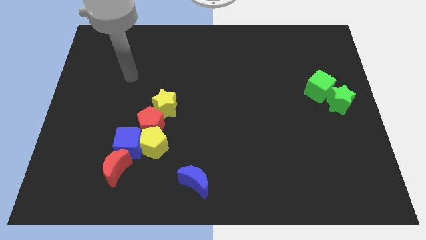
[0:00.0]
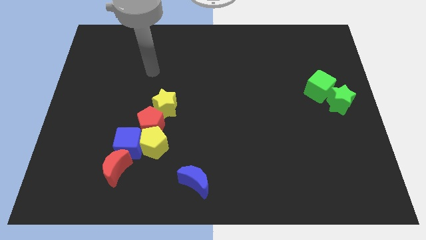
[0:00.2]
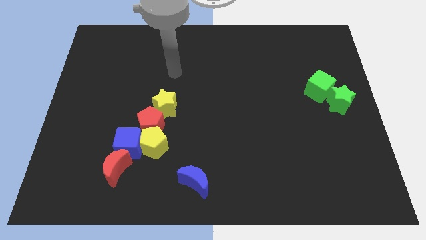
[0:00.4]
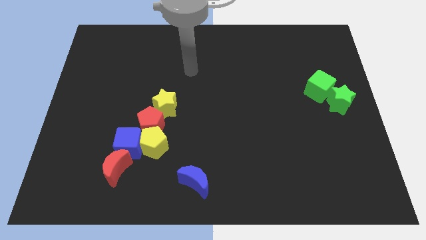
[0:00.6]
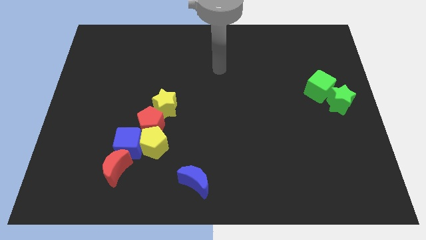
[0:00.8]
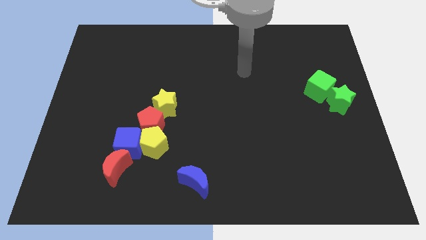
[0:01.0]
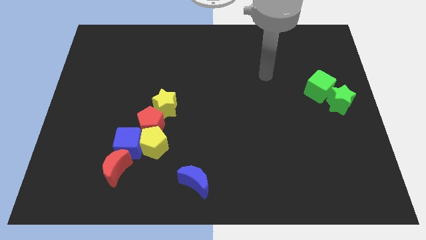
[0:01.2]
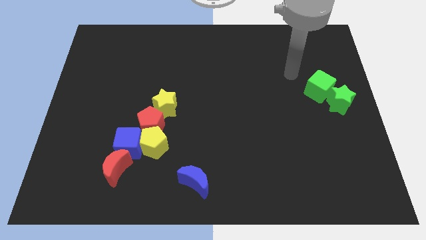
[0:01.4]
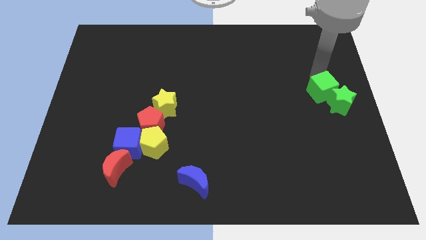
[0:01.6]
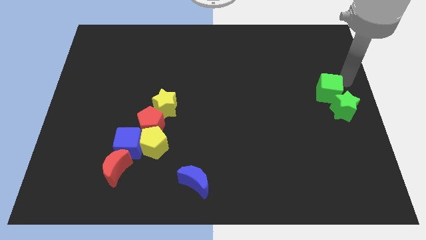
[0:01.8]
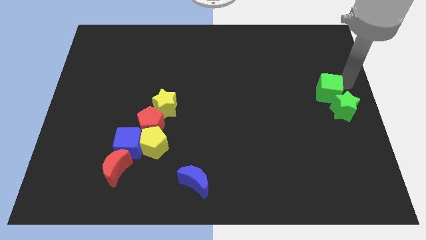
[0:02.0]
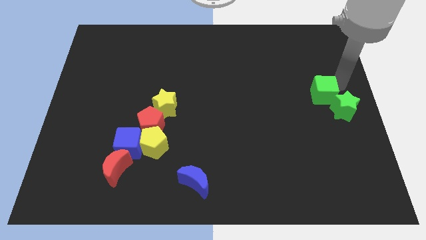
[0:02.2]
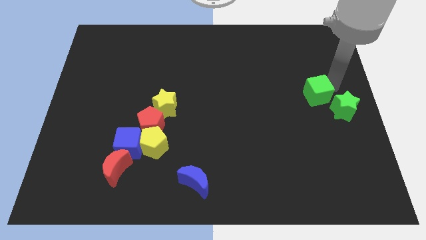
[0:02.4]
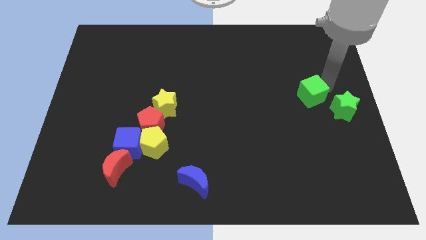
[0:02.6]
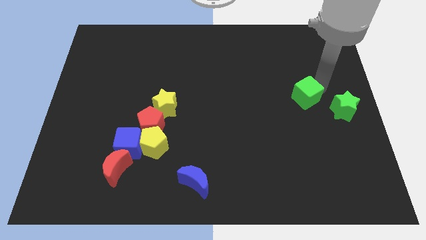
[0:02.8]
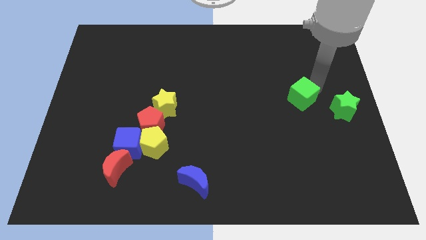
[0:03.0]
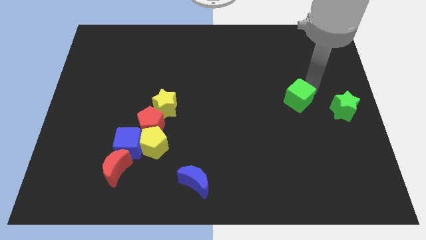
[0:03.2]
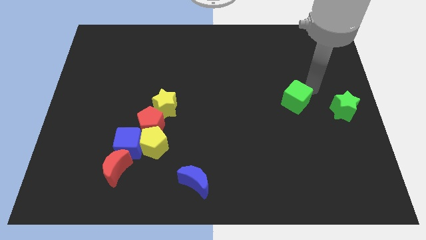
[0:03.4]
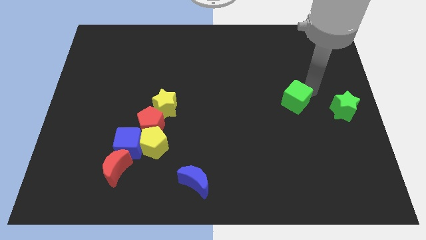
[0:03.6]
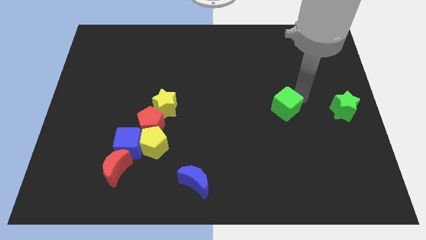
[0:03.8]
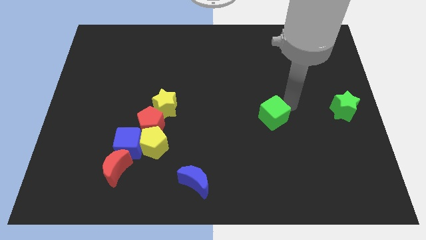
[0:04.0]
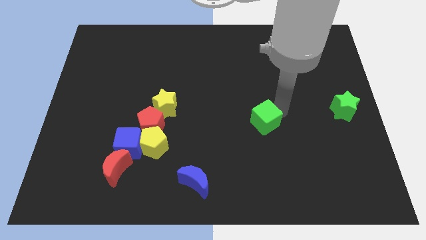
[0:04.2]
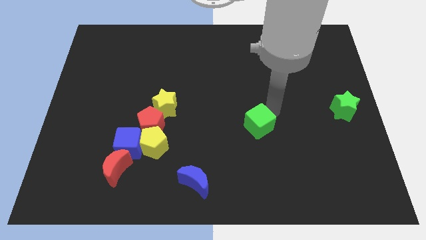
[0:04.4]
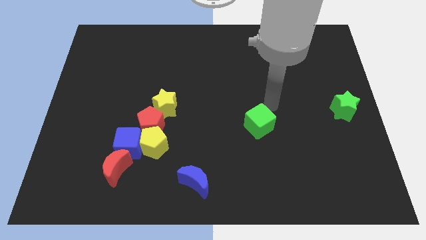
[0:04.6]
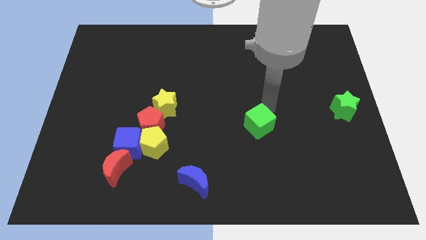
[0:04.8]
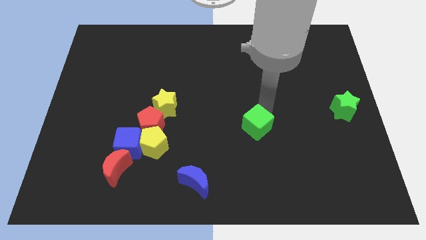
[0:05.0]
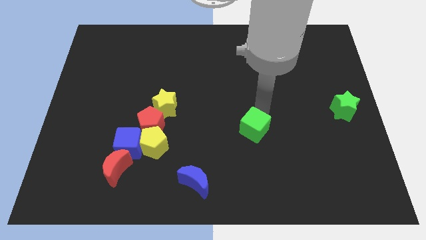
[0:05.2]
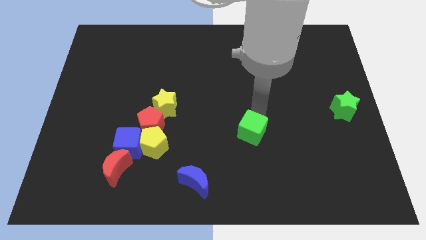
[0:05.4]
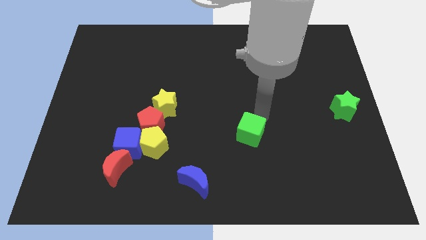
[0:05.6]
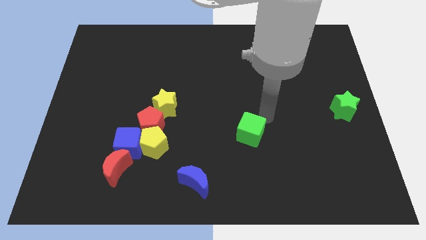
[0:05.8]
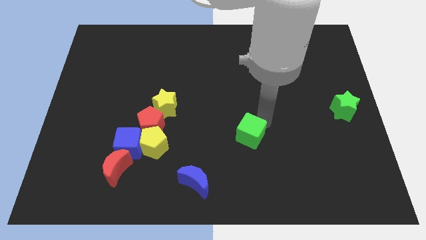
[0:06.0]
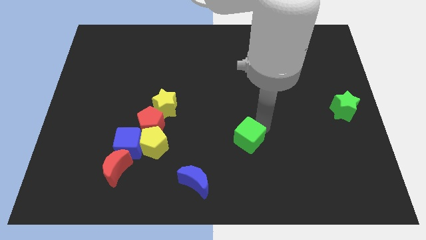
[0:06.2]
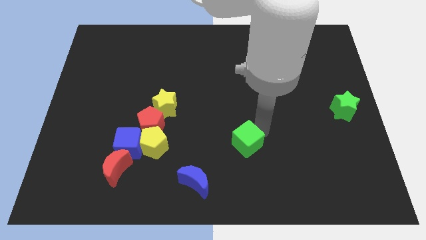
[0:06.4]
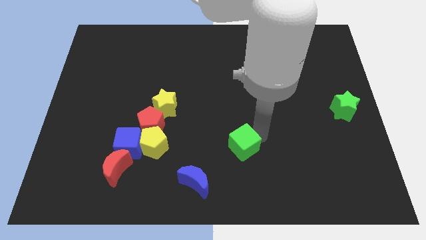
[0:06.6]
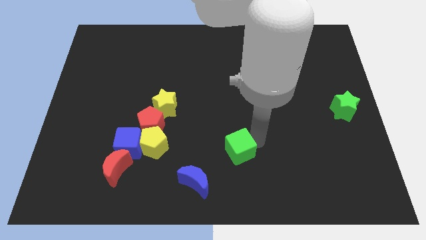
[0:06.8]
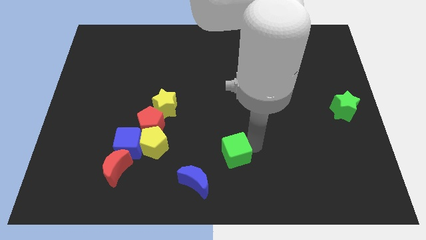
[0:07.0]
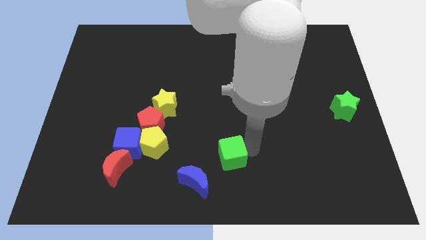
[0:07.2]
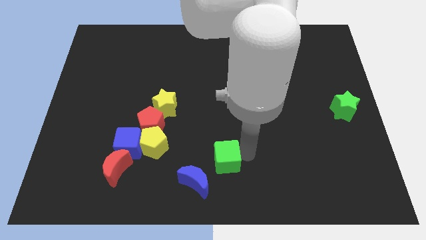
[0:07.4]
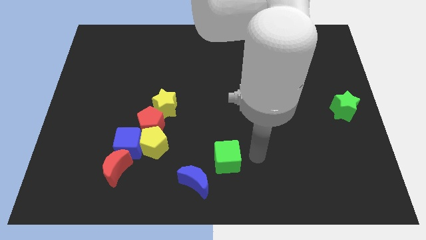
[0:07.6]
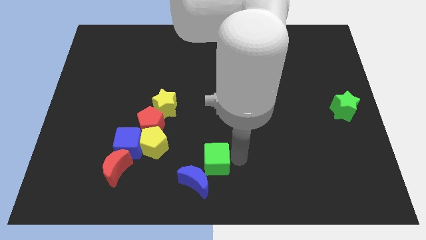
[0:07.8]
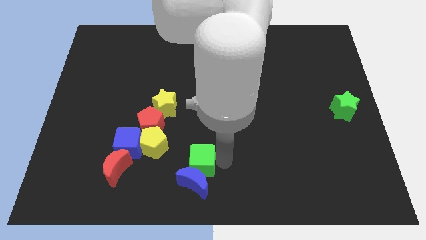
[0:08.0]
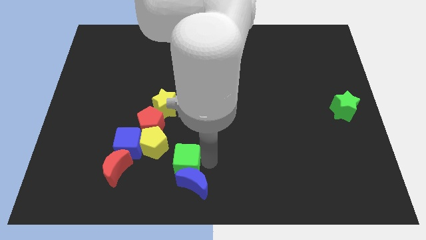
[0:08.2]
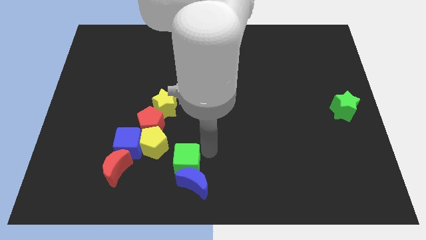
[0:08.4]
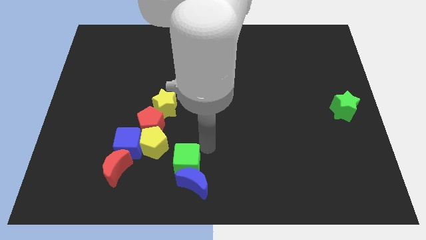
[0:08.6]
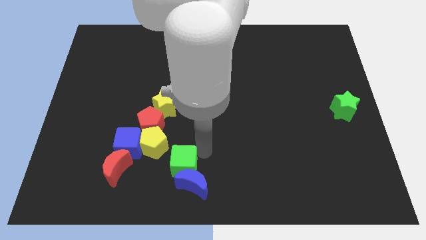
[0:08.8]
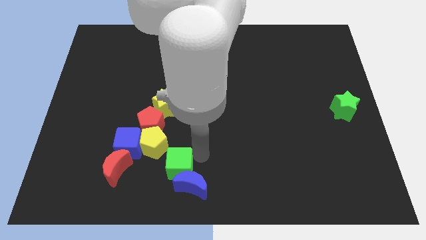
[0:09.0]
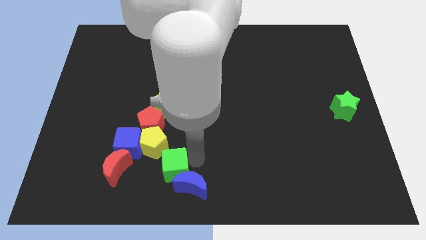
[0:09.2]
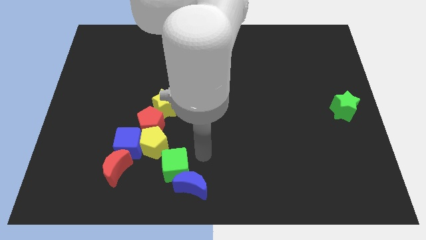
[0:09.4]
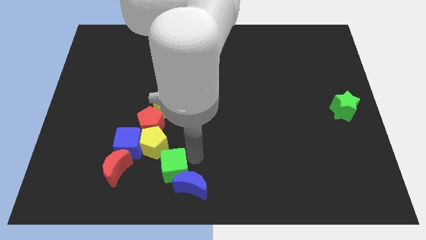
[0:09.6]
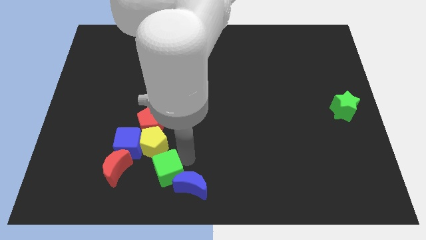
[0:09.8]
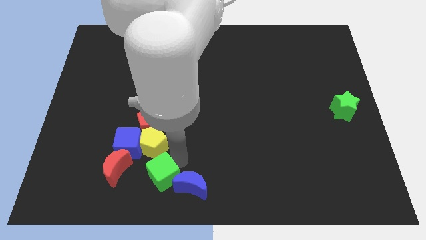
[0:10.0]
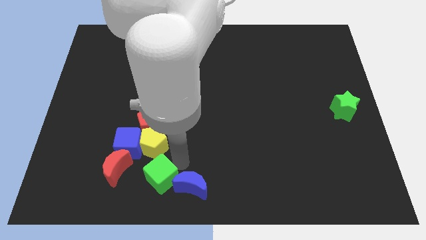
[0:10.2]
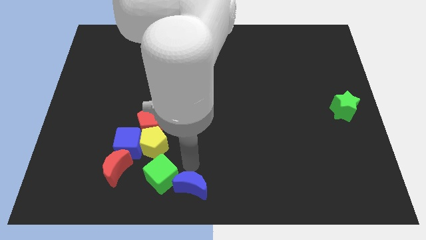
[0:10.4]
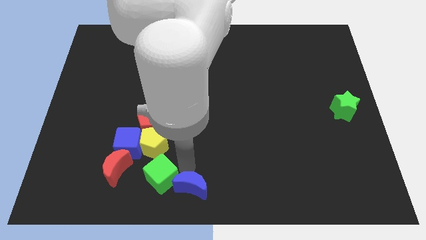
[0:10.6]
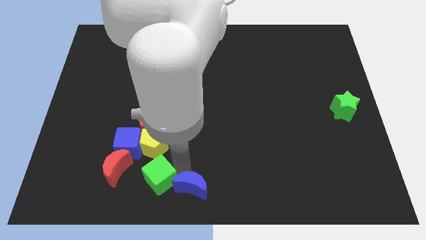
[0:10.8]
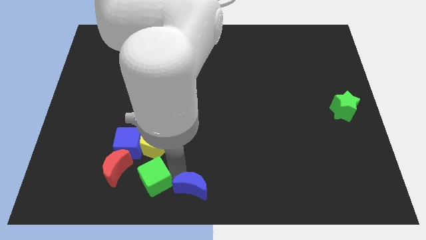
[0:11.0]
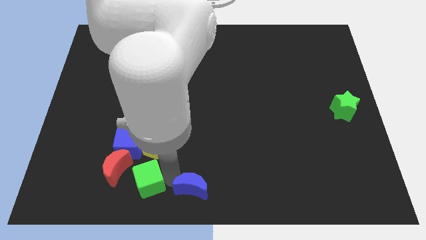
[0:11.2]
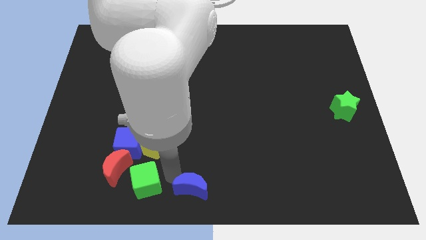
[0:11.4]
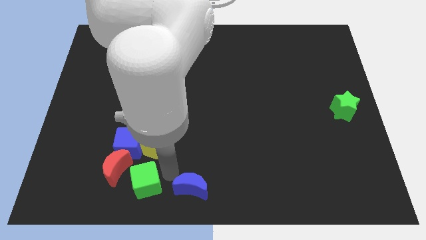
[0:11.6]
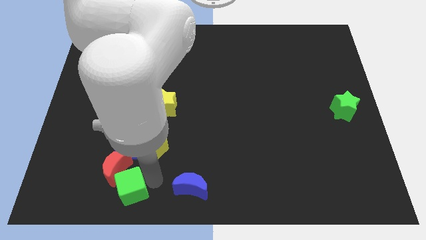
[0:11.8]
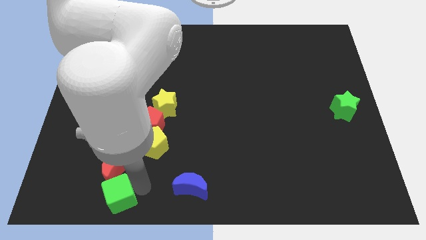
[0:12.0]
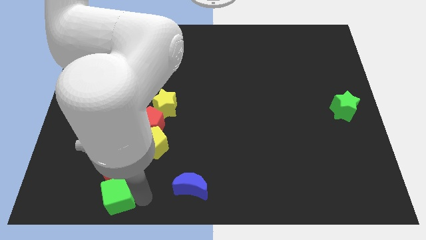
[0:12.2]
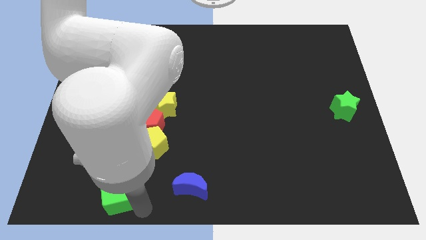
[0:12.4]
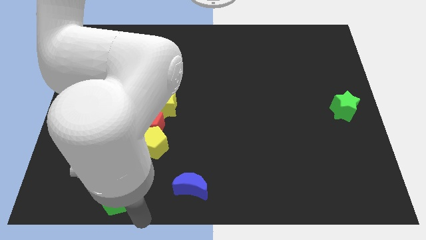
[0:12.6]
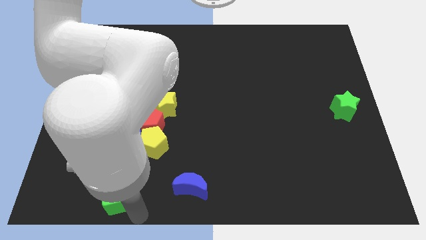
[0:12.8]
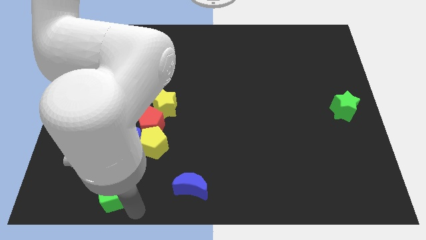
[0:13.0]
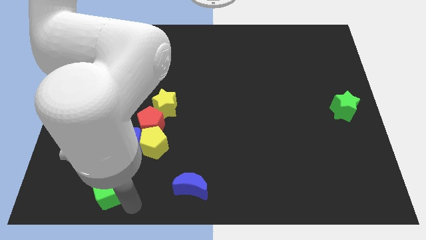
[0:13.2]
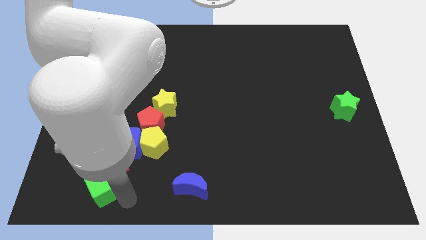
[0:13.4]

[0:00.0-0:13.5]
put the green cube diagonally down and to the left of the blue cube
